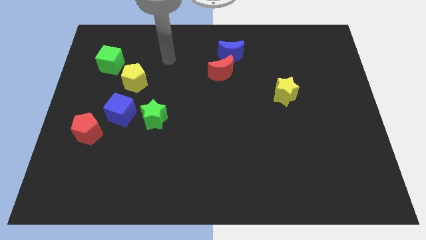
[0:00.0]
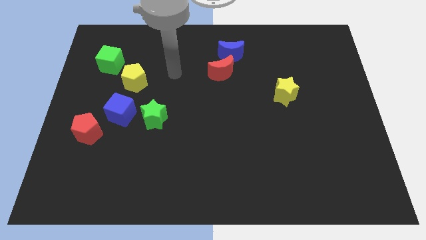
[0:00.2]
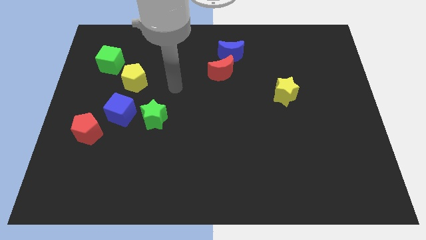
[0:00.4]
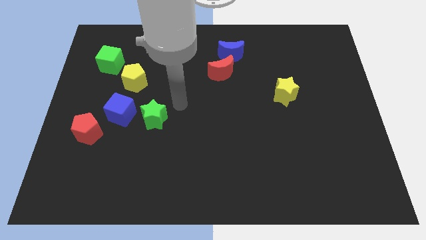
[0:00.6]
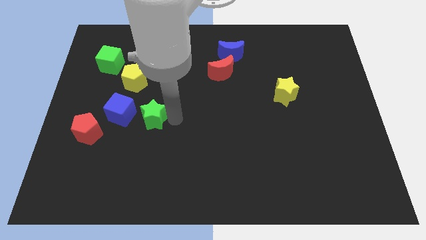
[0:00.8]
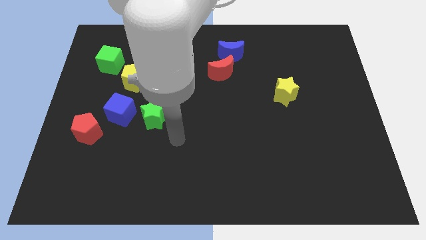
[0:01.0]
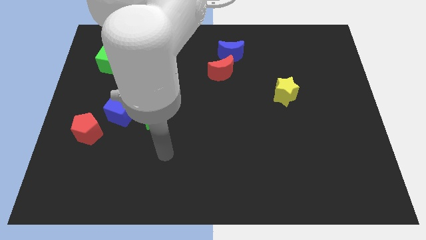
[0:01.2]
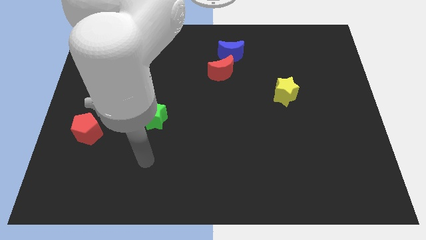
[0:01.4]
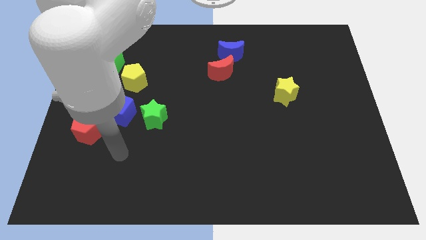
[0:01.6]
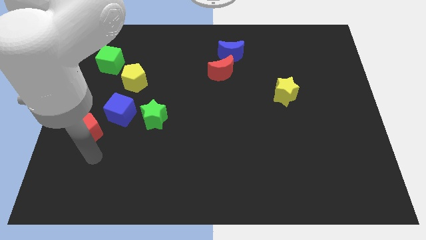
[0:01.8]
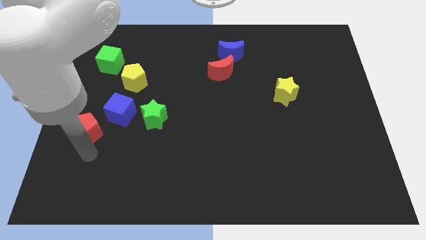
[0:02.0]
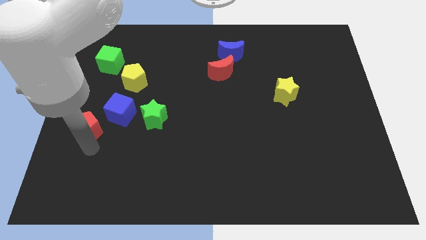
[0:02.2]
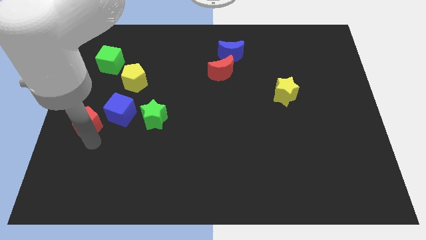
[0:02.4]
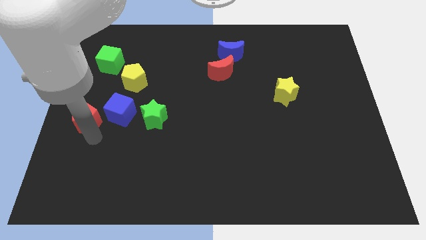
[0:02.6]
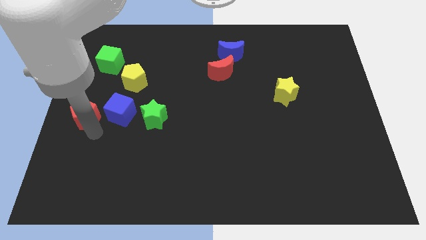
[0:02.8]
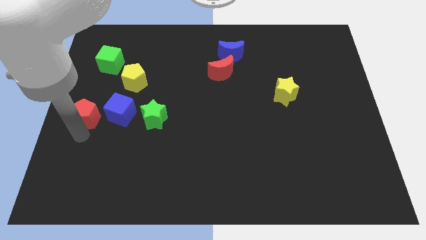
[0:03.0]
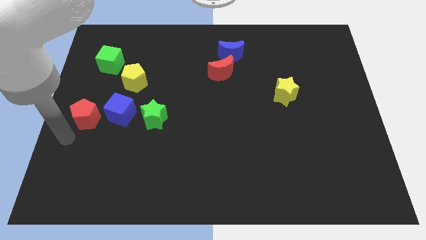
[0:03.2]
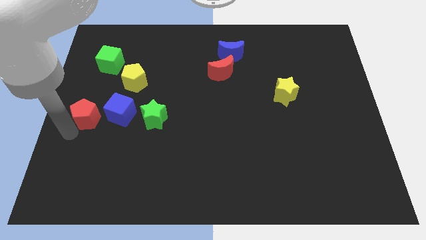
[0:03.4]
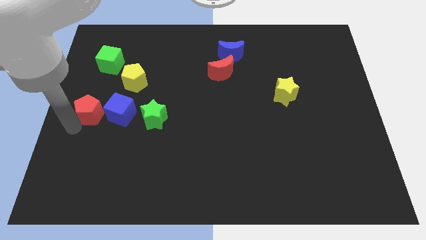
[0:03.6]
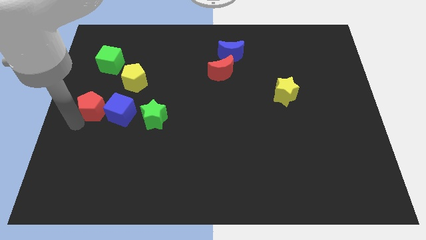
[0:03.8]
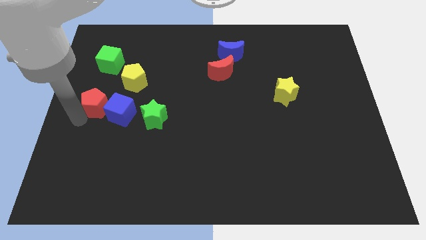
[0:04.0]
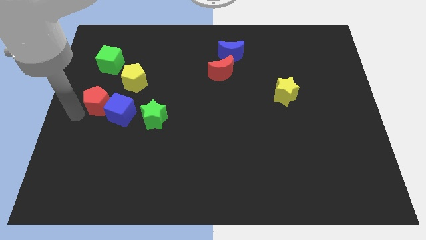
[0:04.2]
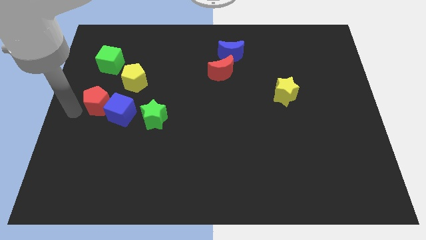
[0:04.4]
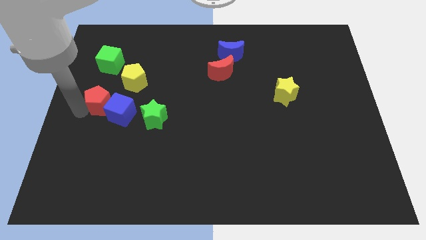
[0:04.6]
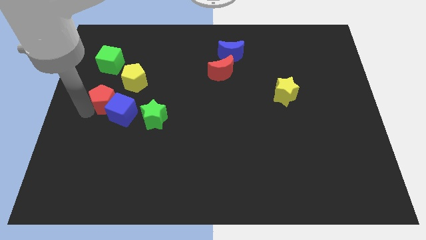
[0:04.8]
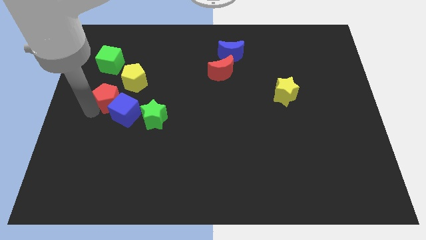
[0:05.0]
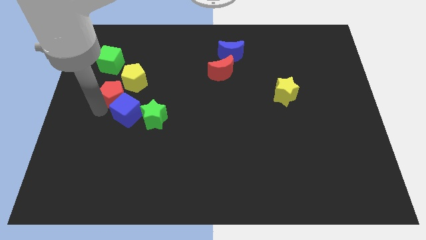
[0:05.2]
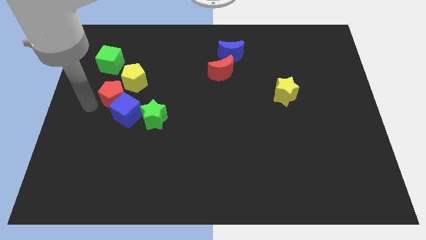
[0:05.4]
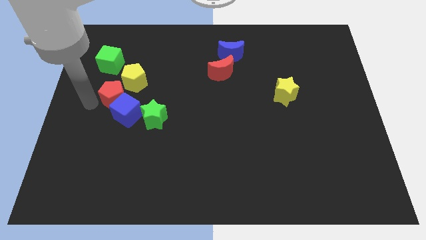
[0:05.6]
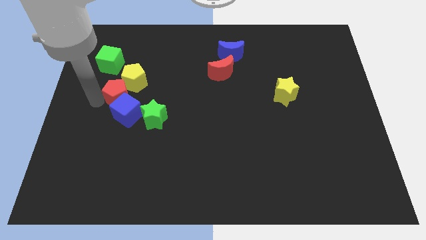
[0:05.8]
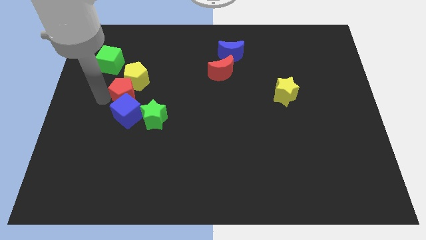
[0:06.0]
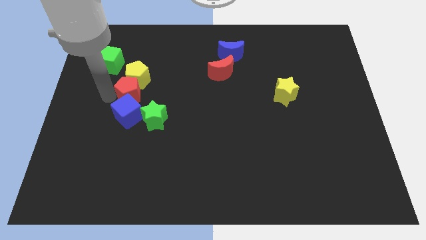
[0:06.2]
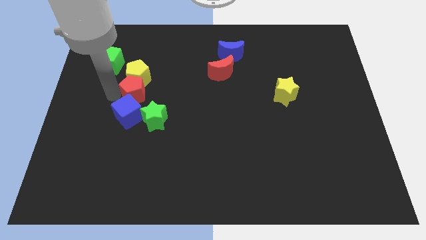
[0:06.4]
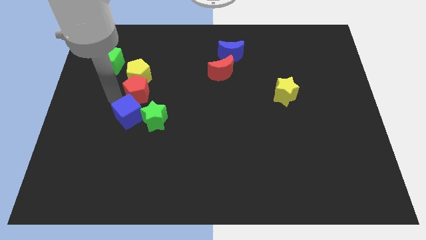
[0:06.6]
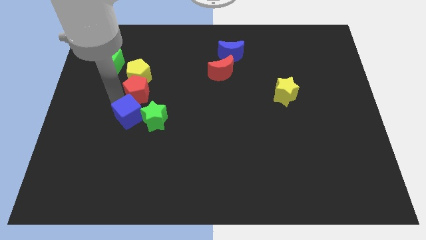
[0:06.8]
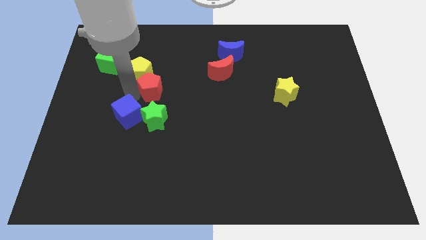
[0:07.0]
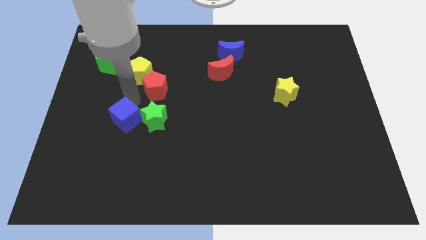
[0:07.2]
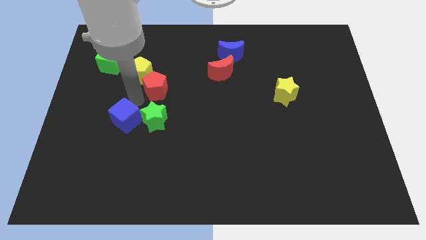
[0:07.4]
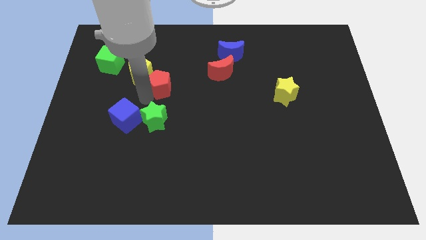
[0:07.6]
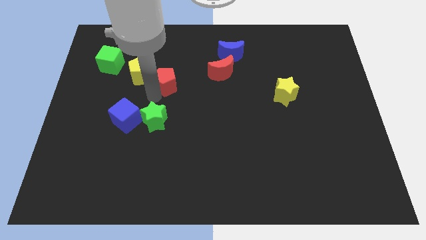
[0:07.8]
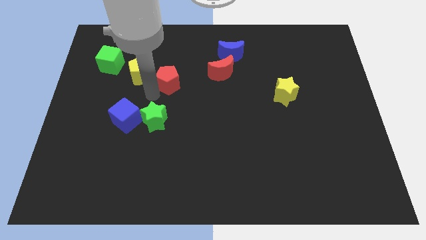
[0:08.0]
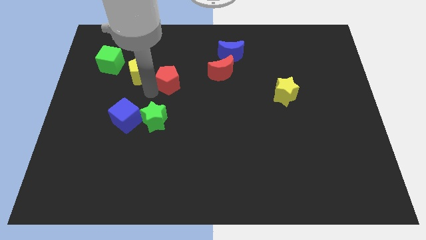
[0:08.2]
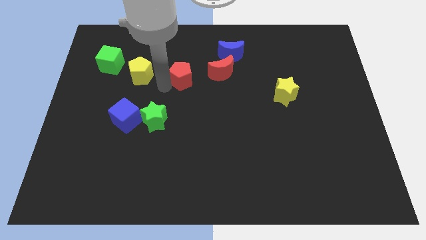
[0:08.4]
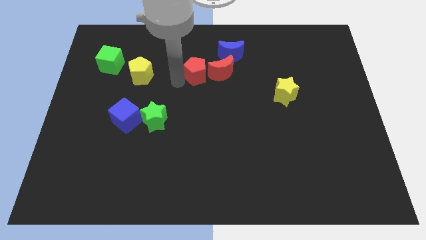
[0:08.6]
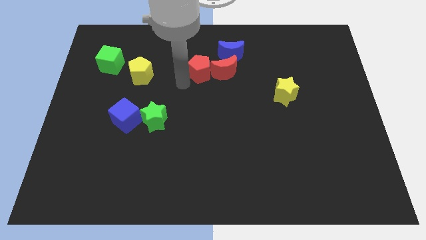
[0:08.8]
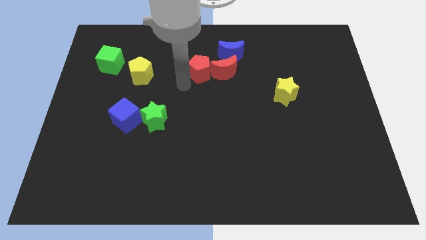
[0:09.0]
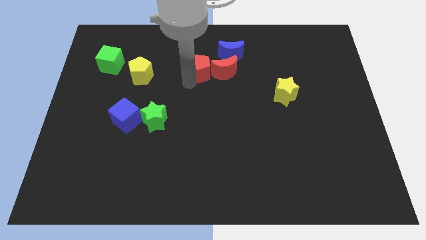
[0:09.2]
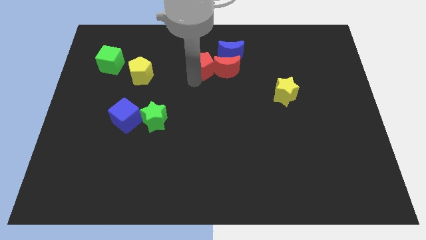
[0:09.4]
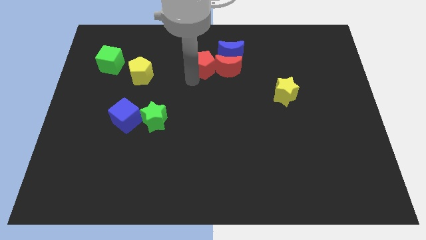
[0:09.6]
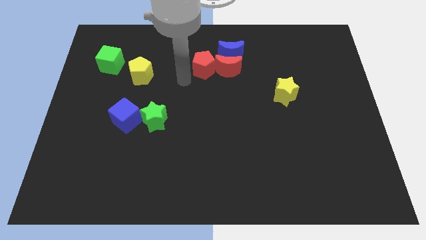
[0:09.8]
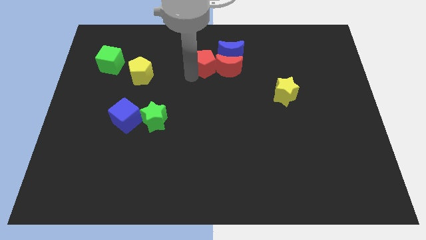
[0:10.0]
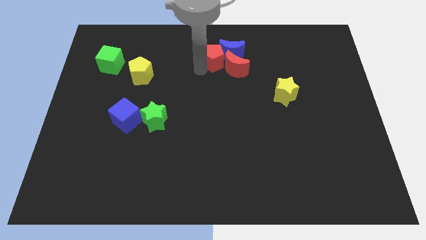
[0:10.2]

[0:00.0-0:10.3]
move the red pentagon towards the blue moon

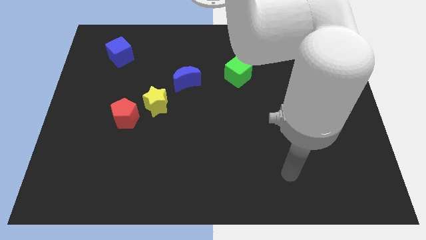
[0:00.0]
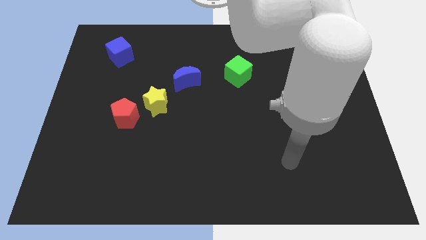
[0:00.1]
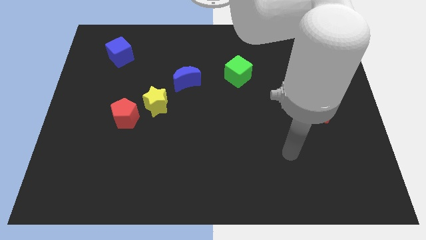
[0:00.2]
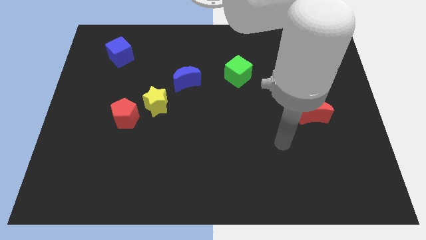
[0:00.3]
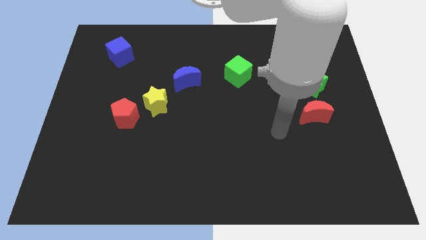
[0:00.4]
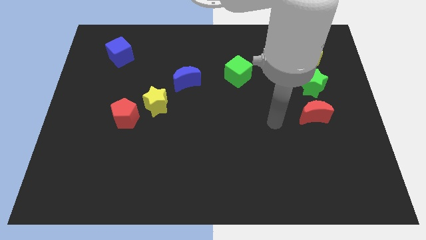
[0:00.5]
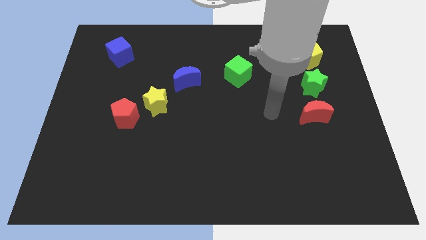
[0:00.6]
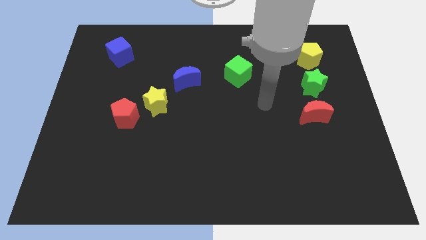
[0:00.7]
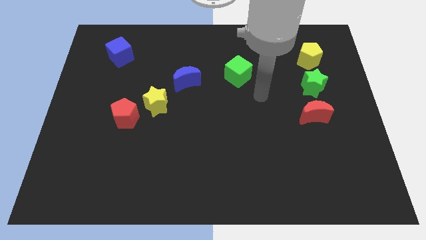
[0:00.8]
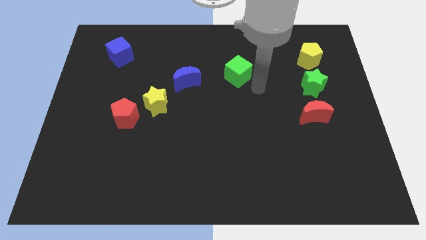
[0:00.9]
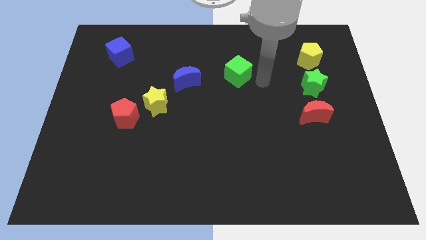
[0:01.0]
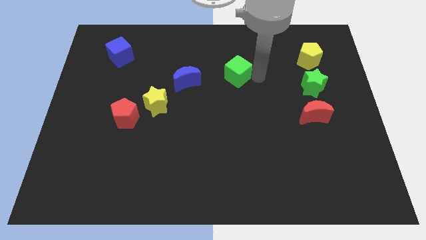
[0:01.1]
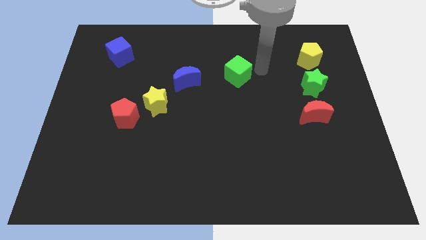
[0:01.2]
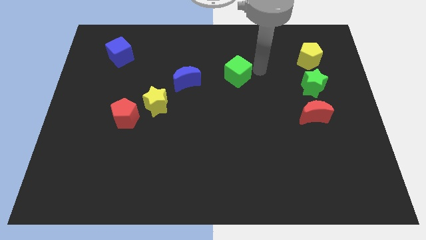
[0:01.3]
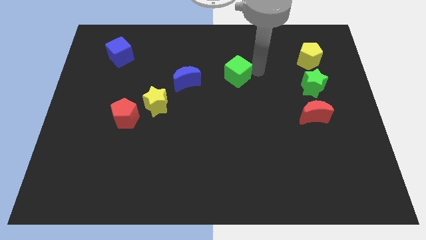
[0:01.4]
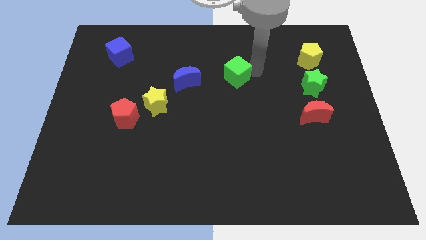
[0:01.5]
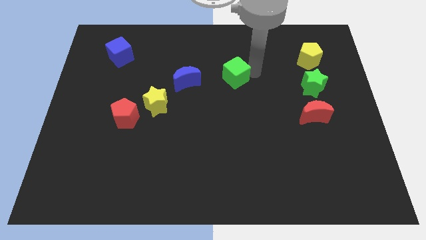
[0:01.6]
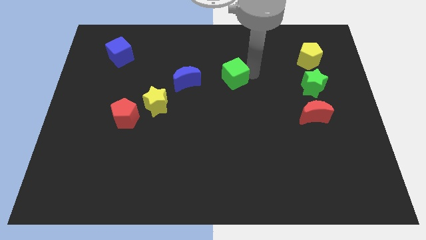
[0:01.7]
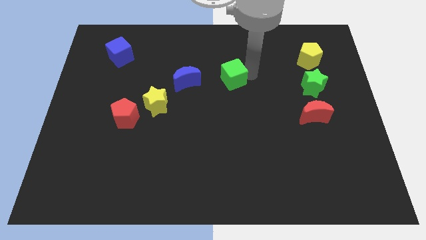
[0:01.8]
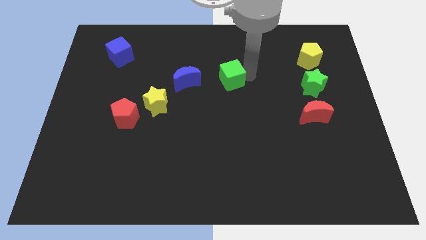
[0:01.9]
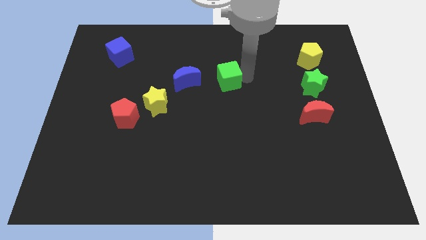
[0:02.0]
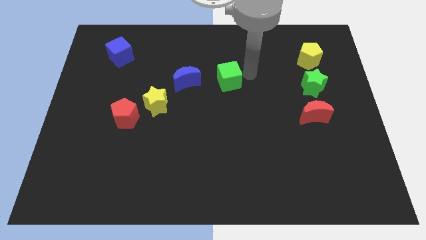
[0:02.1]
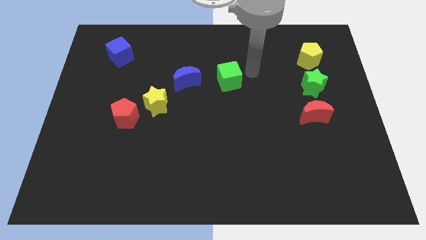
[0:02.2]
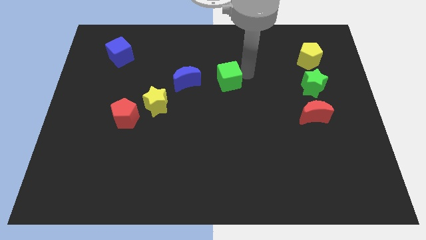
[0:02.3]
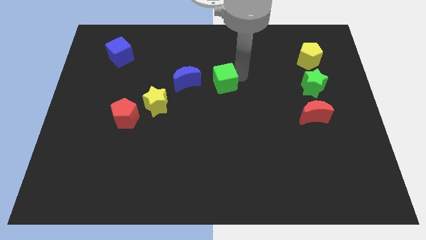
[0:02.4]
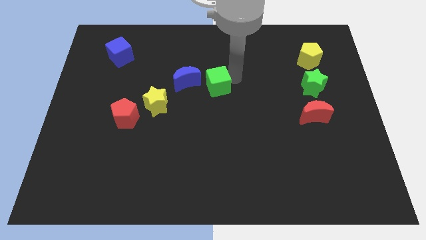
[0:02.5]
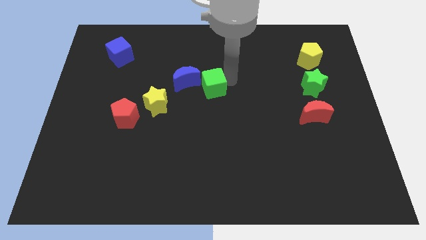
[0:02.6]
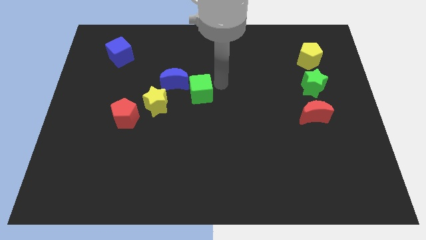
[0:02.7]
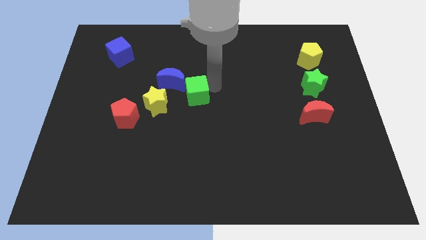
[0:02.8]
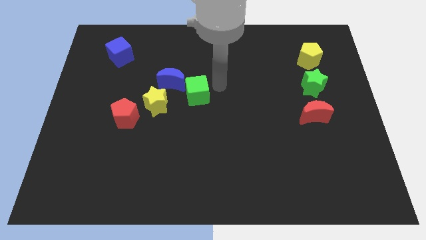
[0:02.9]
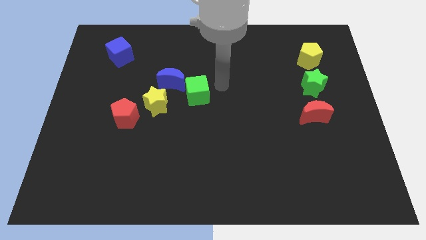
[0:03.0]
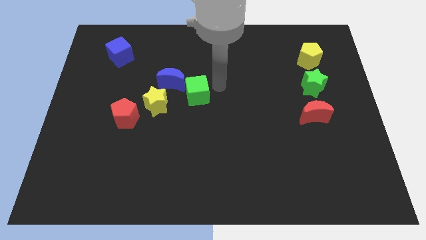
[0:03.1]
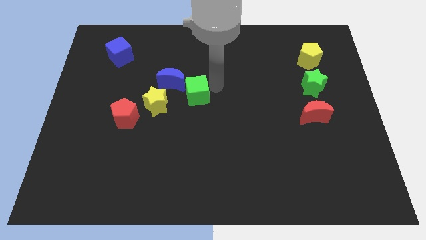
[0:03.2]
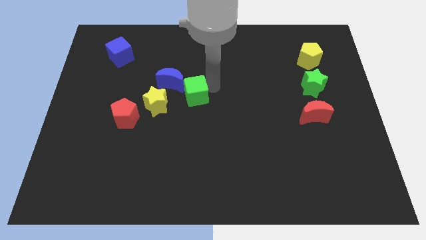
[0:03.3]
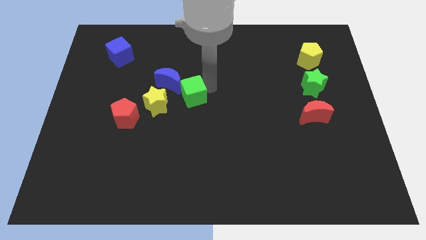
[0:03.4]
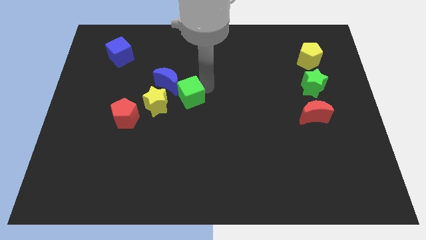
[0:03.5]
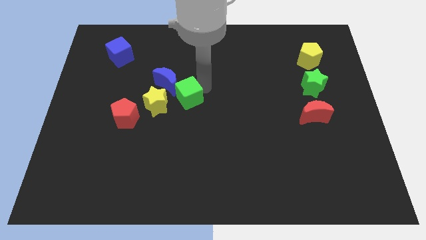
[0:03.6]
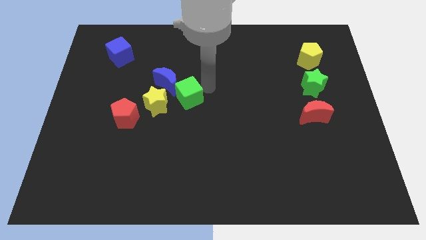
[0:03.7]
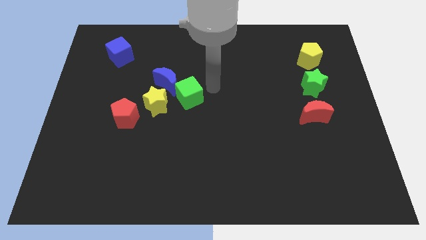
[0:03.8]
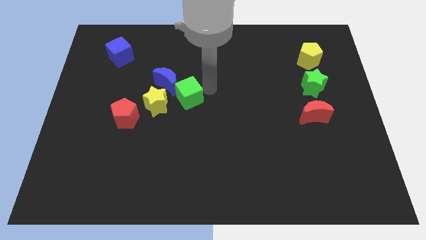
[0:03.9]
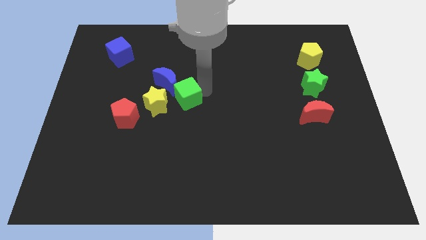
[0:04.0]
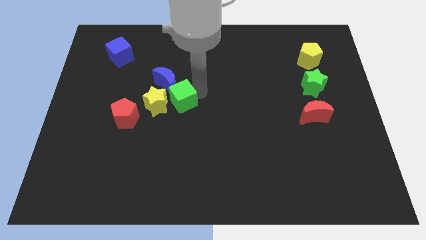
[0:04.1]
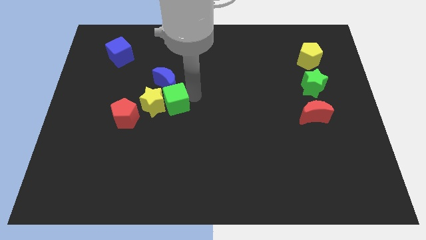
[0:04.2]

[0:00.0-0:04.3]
push the green cube next to the yellow star
